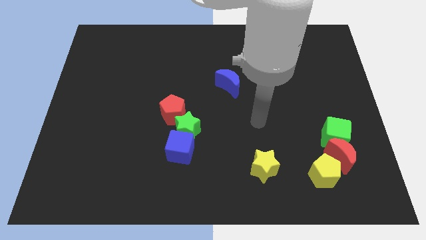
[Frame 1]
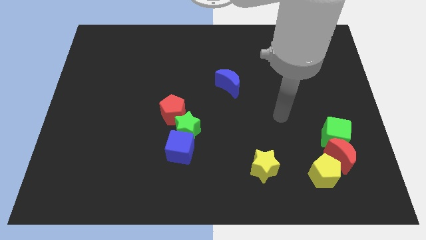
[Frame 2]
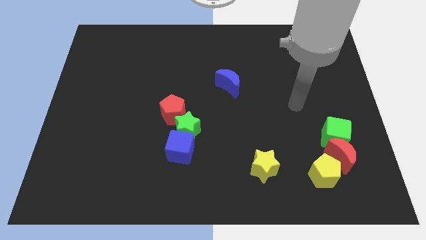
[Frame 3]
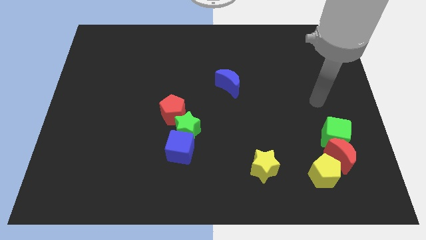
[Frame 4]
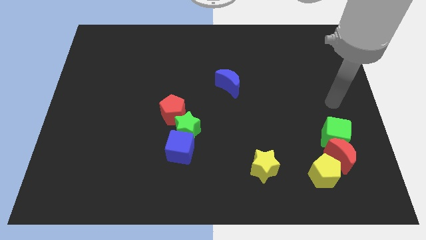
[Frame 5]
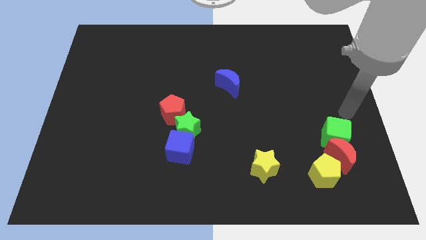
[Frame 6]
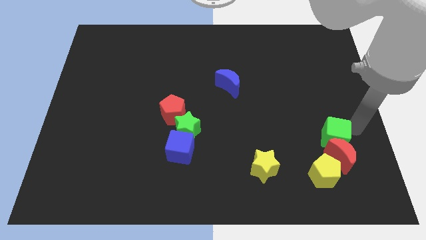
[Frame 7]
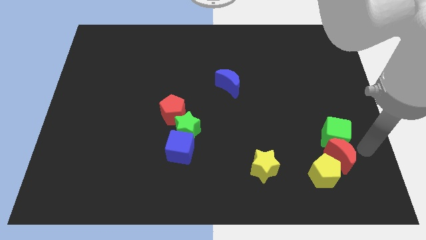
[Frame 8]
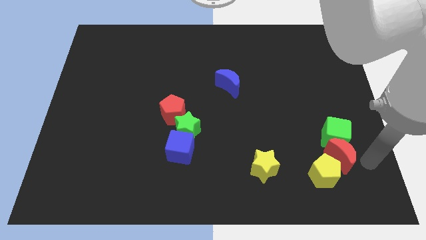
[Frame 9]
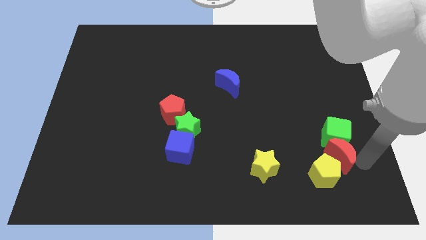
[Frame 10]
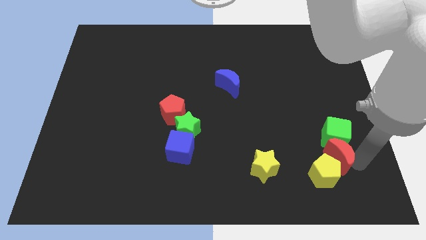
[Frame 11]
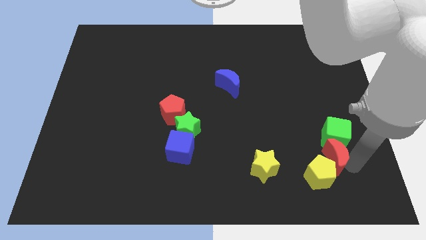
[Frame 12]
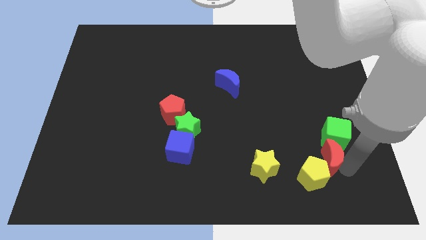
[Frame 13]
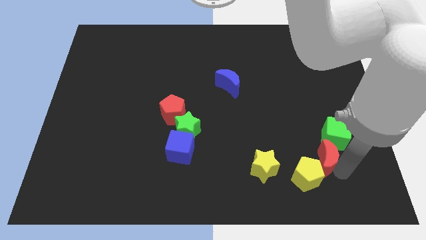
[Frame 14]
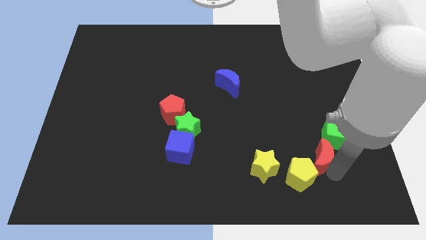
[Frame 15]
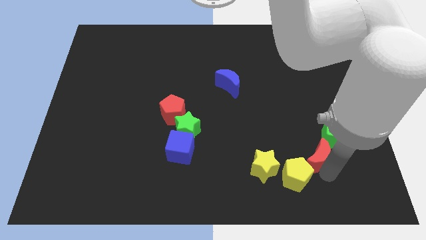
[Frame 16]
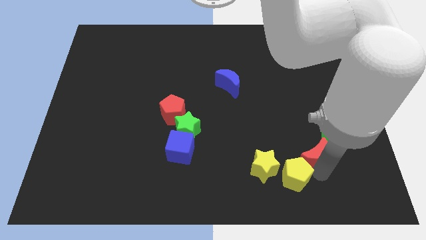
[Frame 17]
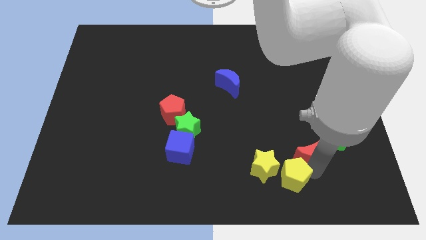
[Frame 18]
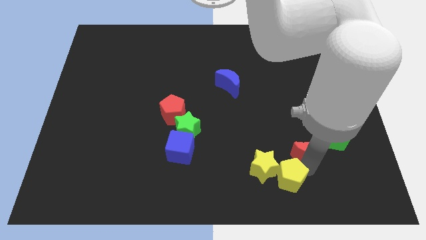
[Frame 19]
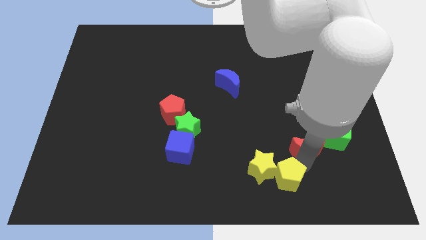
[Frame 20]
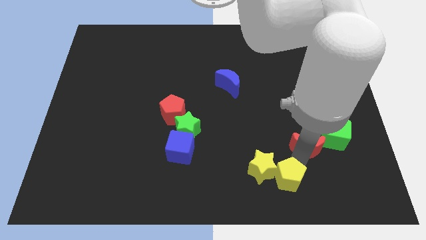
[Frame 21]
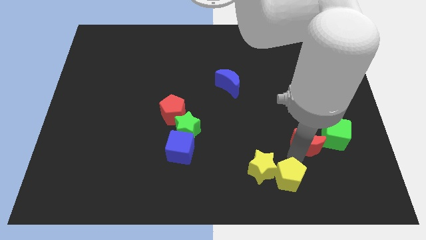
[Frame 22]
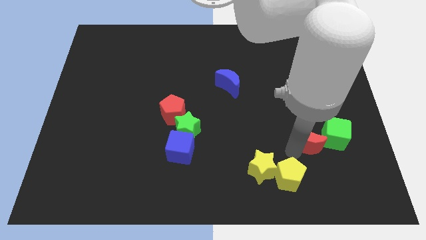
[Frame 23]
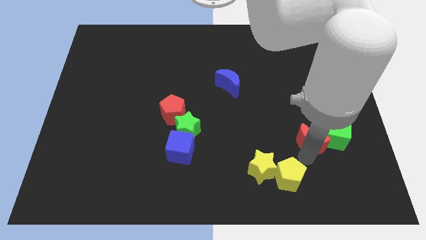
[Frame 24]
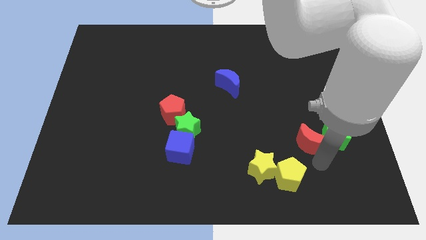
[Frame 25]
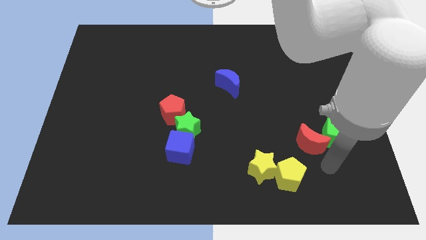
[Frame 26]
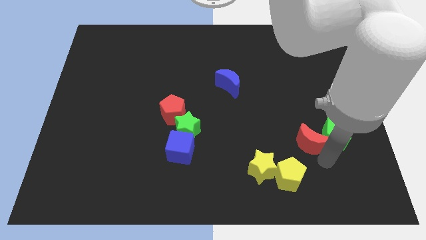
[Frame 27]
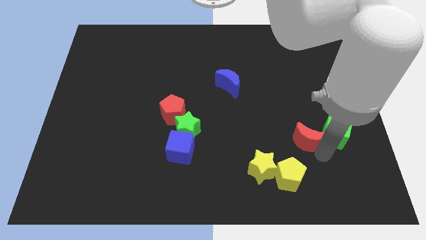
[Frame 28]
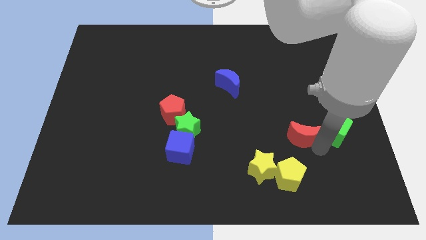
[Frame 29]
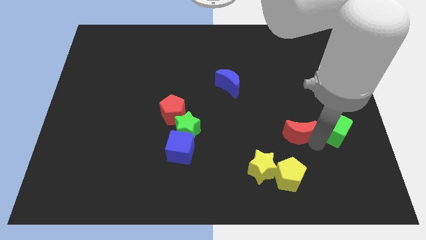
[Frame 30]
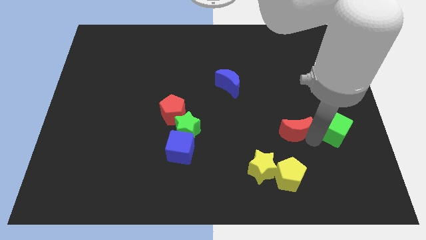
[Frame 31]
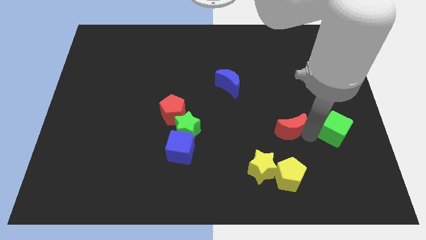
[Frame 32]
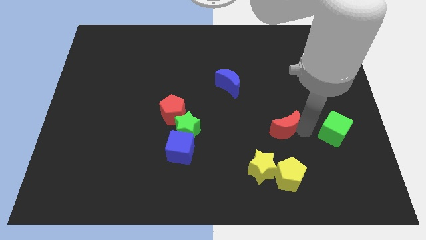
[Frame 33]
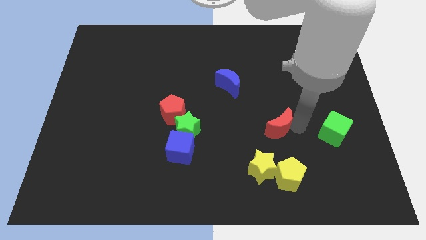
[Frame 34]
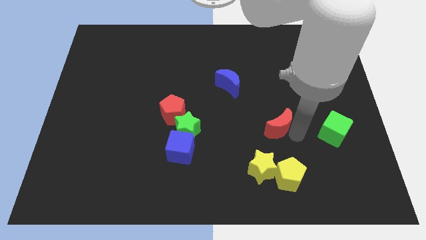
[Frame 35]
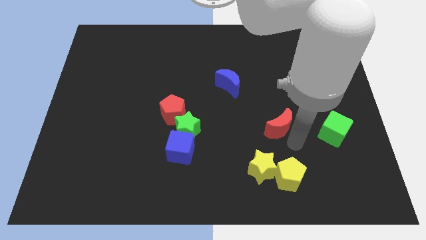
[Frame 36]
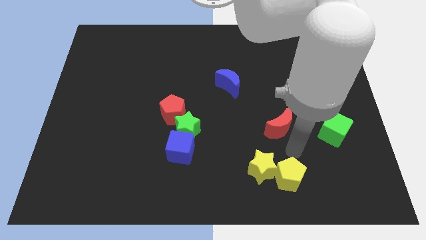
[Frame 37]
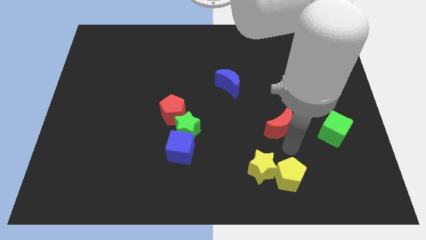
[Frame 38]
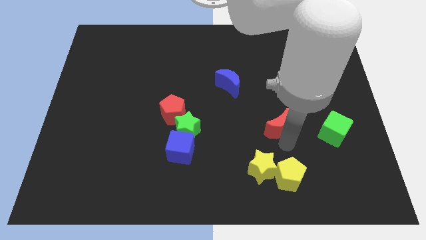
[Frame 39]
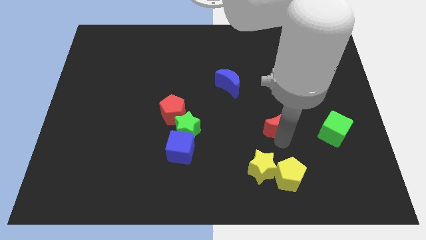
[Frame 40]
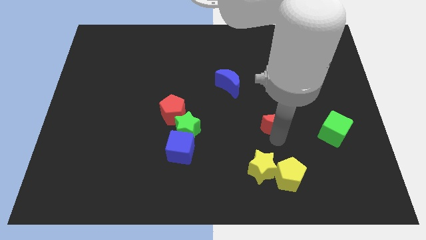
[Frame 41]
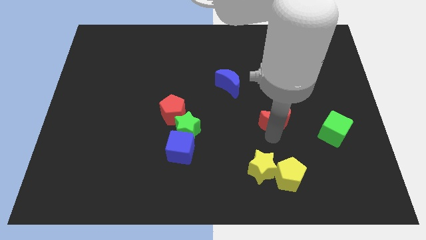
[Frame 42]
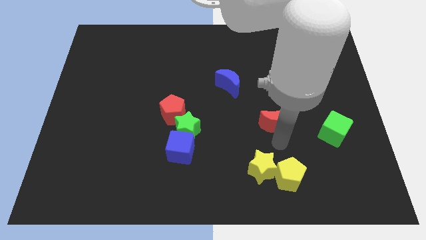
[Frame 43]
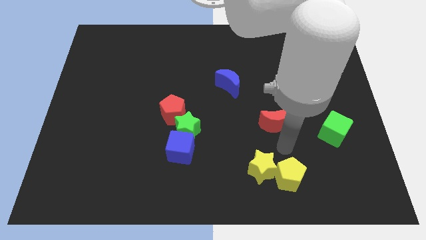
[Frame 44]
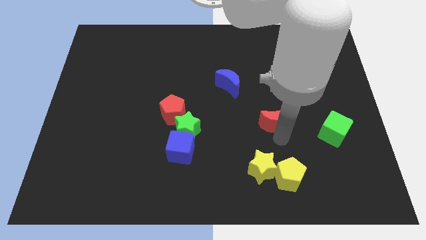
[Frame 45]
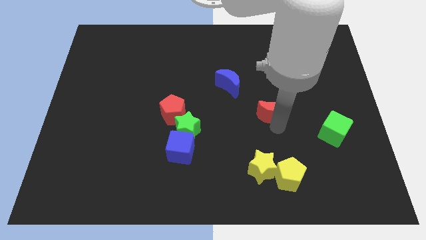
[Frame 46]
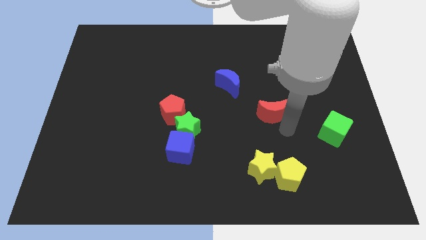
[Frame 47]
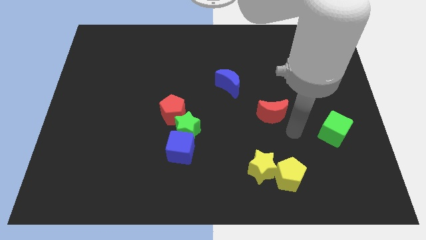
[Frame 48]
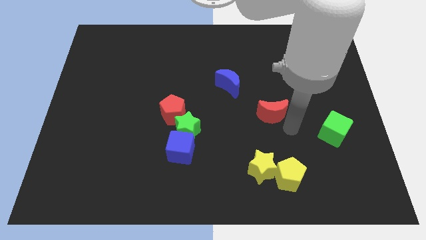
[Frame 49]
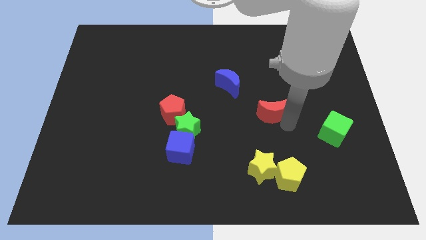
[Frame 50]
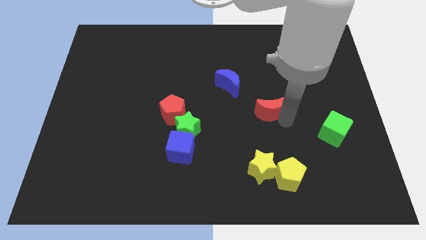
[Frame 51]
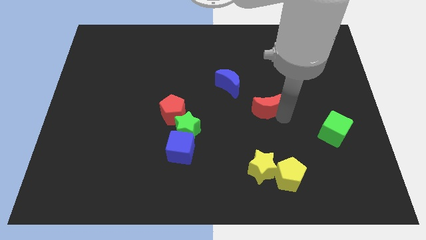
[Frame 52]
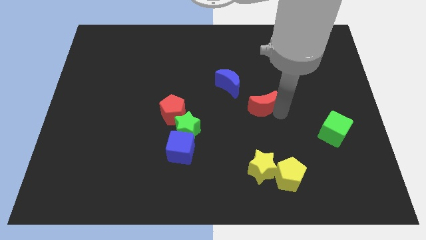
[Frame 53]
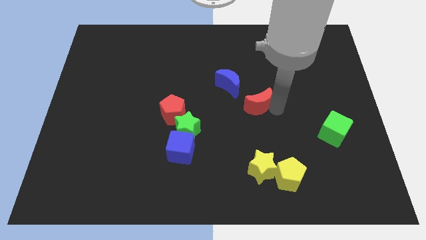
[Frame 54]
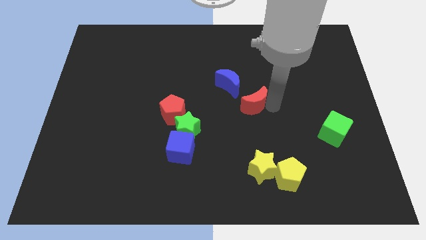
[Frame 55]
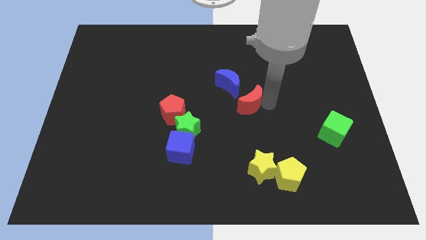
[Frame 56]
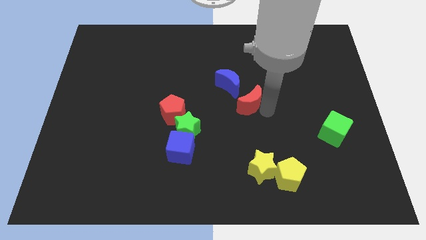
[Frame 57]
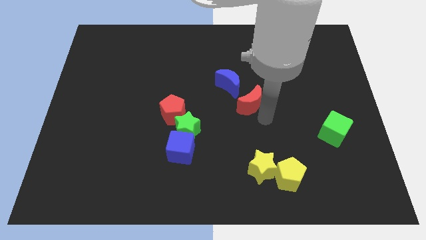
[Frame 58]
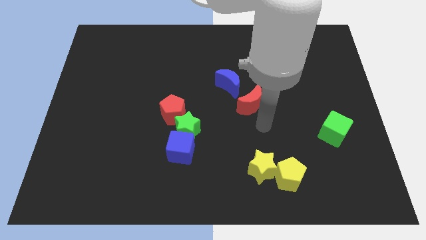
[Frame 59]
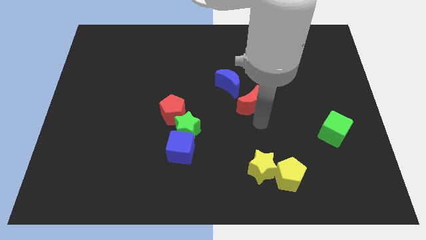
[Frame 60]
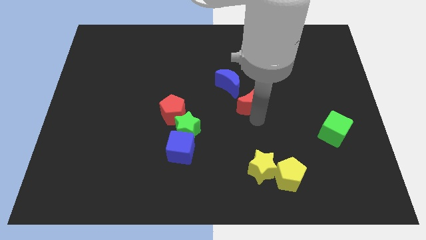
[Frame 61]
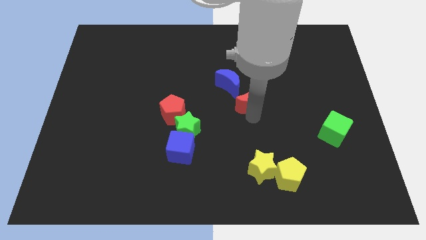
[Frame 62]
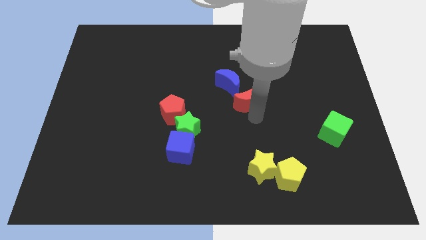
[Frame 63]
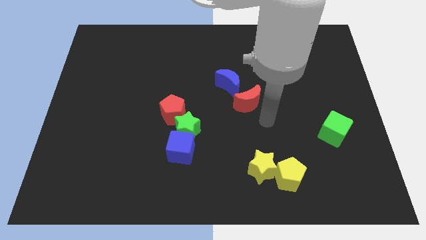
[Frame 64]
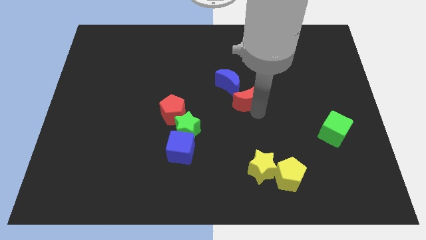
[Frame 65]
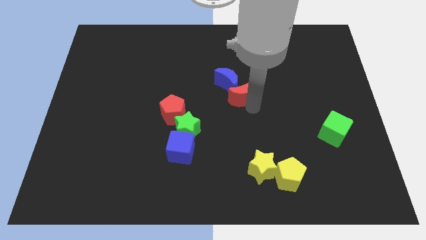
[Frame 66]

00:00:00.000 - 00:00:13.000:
slide the red moon to the blue moon
